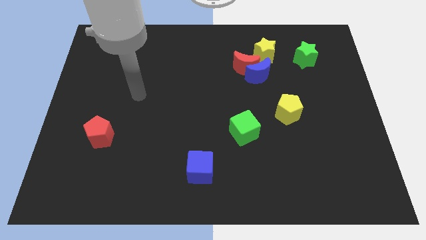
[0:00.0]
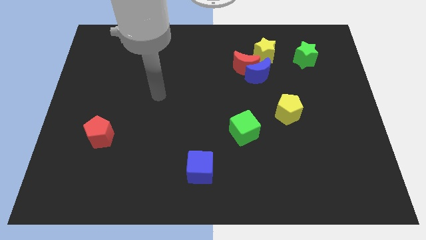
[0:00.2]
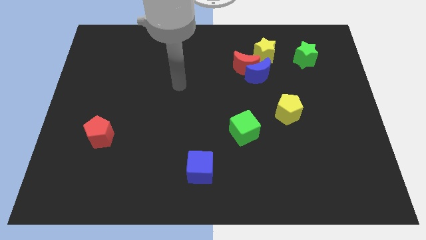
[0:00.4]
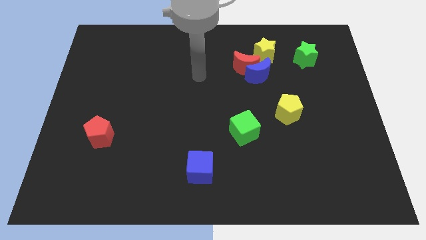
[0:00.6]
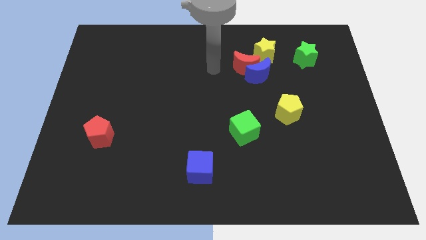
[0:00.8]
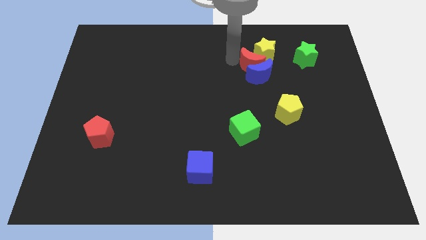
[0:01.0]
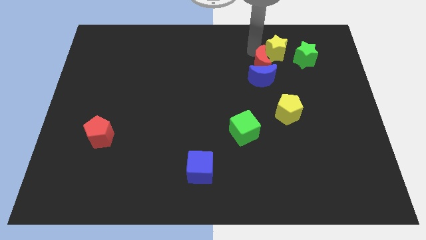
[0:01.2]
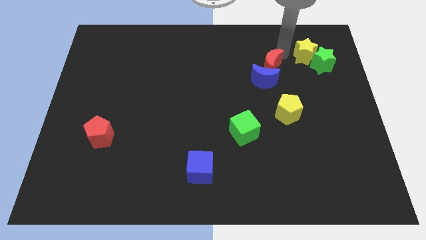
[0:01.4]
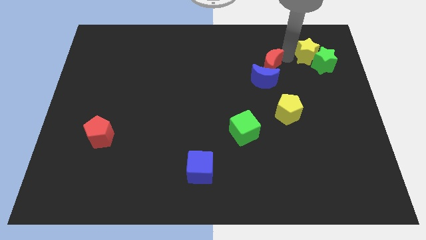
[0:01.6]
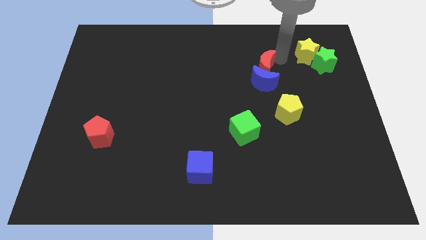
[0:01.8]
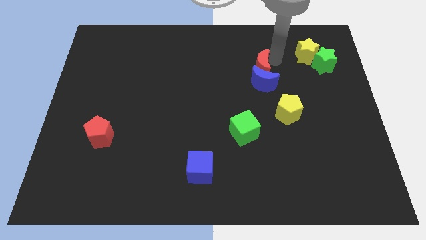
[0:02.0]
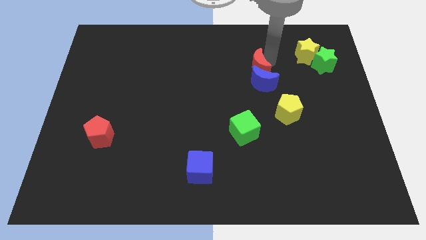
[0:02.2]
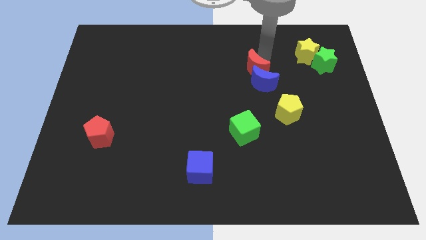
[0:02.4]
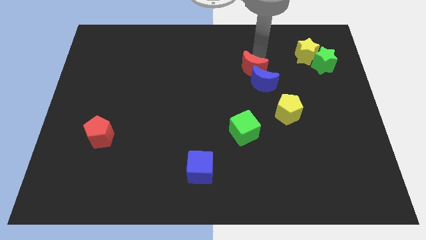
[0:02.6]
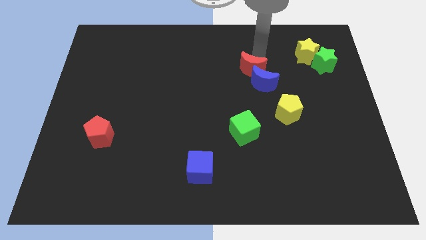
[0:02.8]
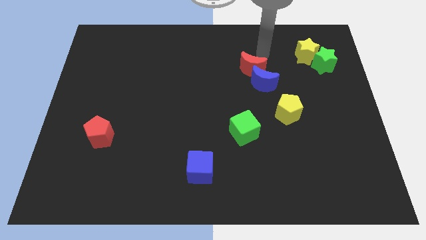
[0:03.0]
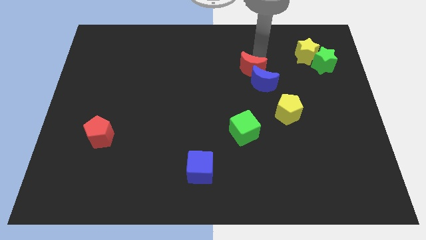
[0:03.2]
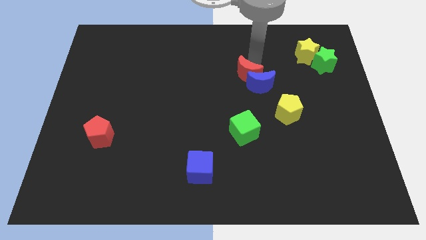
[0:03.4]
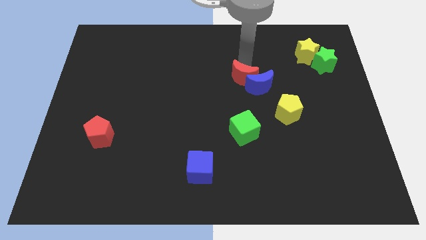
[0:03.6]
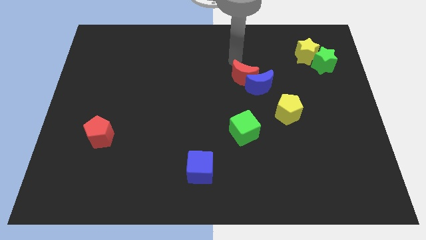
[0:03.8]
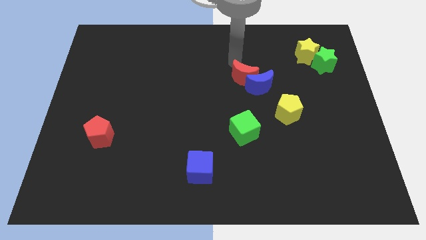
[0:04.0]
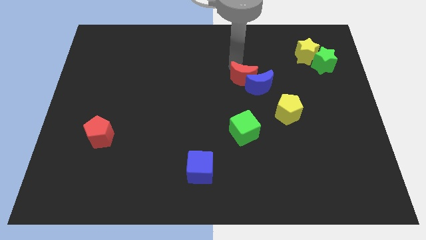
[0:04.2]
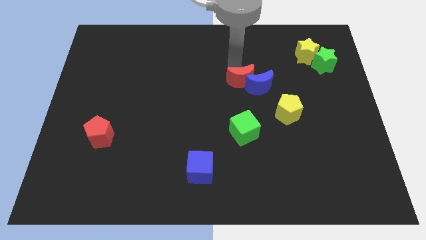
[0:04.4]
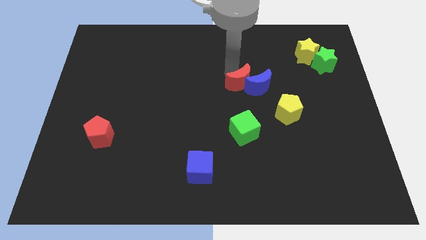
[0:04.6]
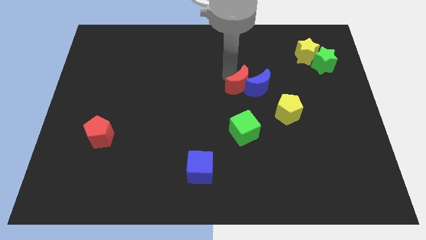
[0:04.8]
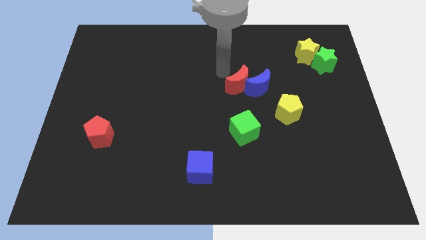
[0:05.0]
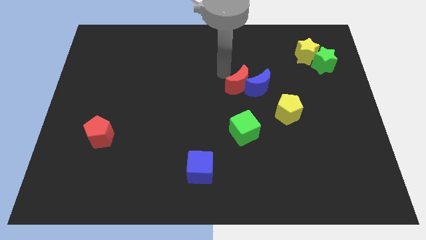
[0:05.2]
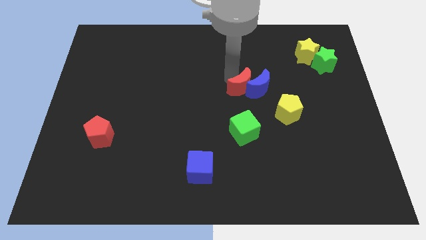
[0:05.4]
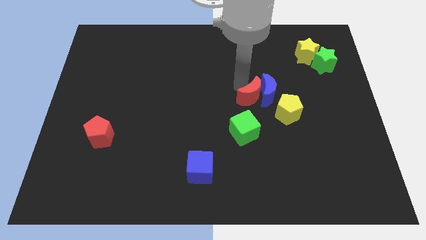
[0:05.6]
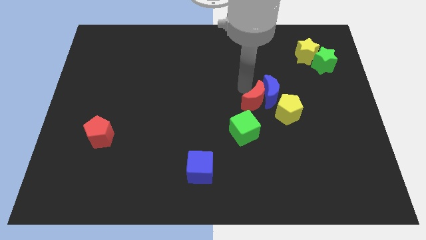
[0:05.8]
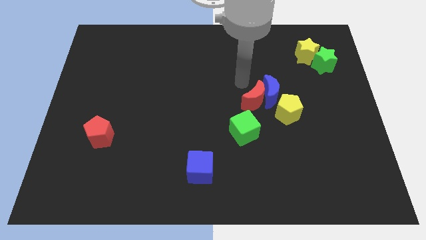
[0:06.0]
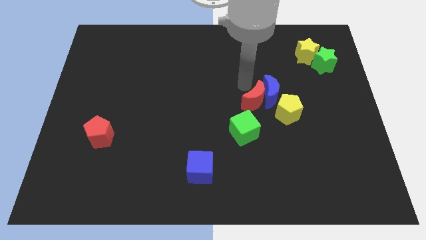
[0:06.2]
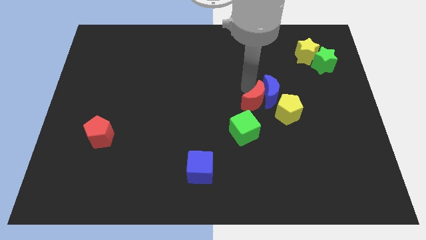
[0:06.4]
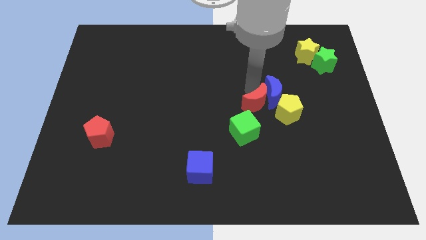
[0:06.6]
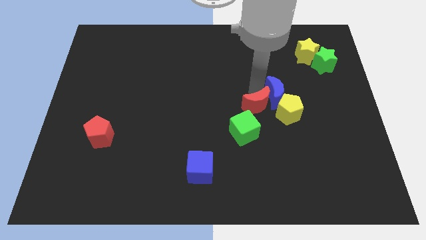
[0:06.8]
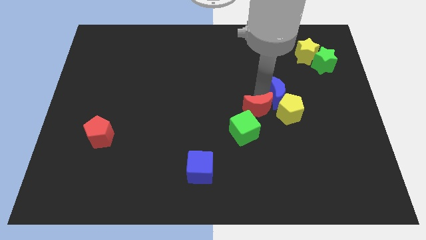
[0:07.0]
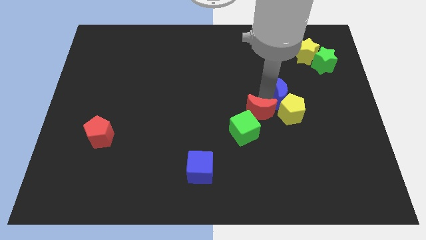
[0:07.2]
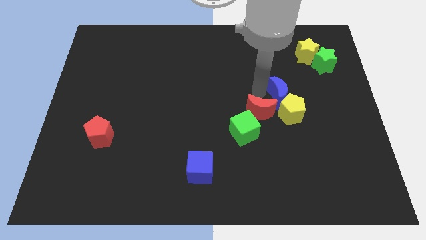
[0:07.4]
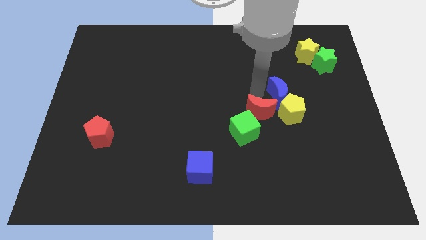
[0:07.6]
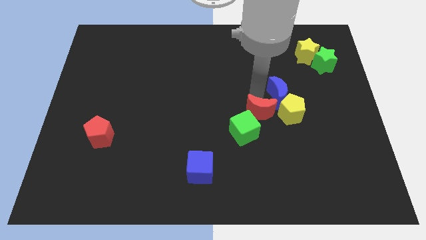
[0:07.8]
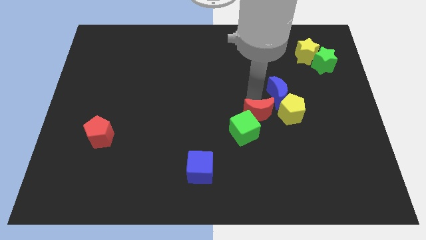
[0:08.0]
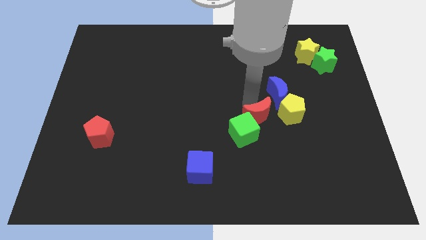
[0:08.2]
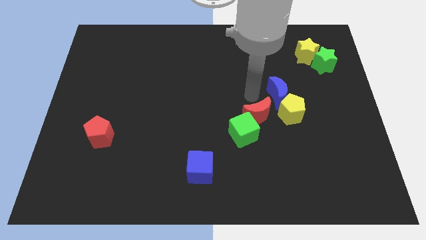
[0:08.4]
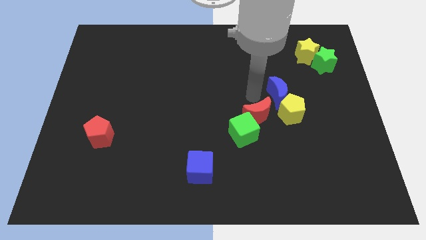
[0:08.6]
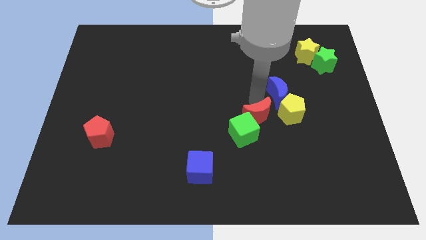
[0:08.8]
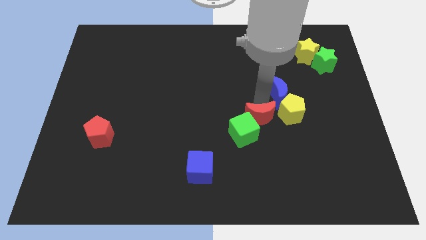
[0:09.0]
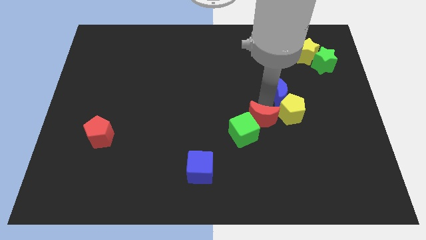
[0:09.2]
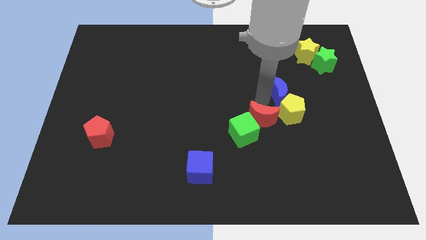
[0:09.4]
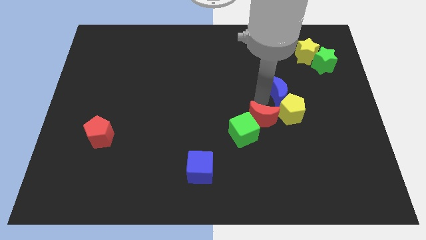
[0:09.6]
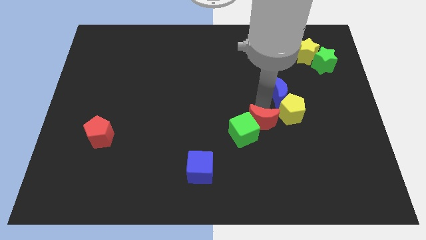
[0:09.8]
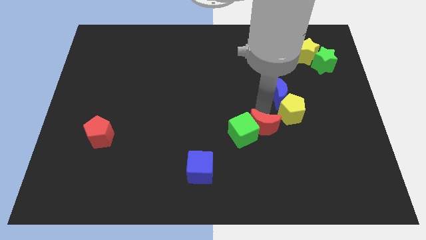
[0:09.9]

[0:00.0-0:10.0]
slide the red moon to the bottom right of the green cube

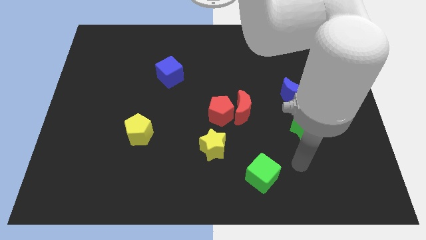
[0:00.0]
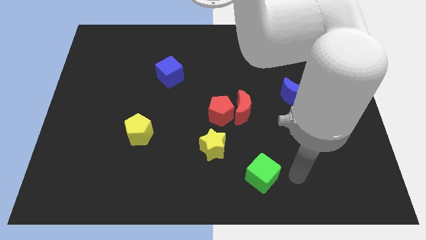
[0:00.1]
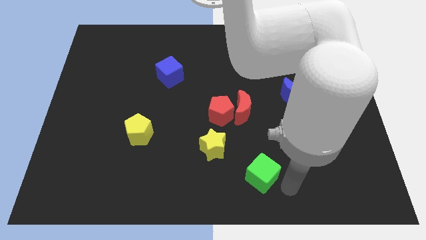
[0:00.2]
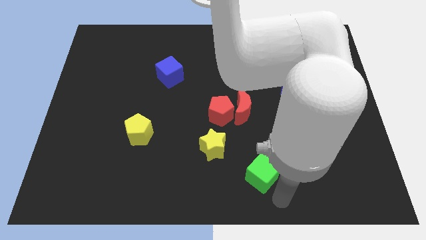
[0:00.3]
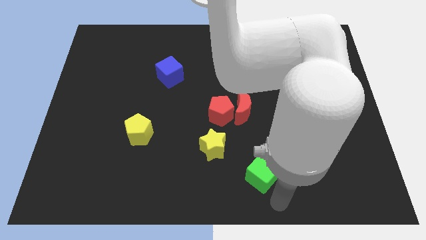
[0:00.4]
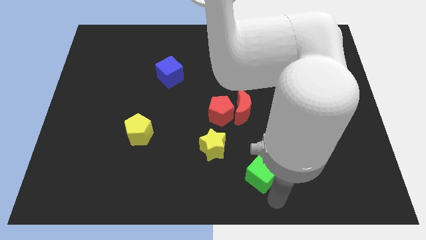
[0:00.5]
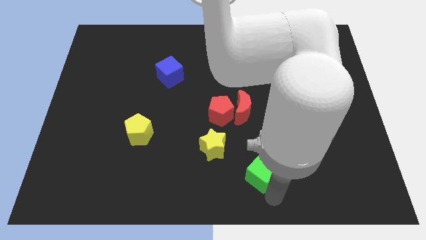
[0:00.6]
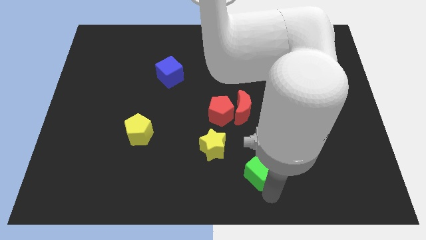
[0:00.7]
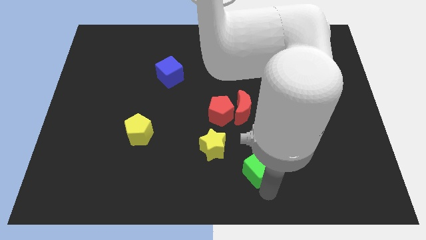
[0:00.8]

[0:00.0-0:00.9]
push the green cube to the bottom of the red moon
